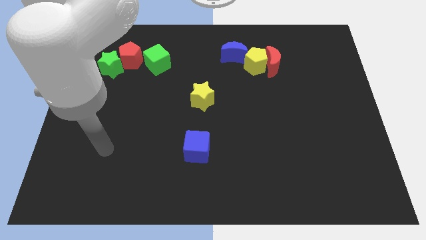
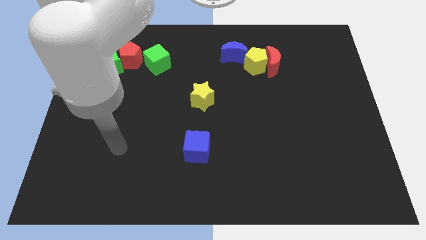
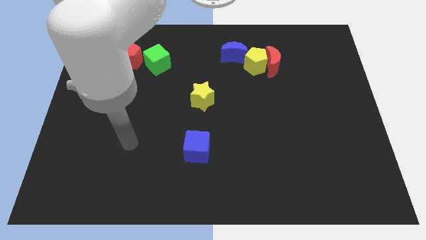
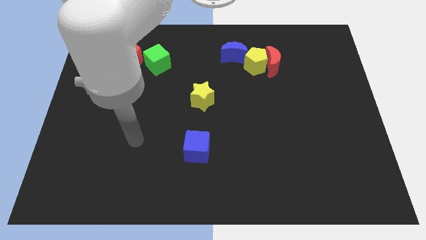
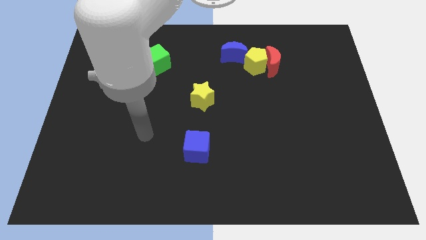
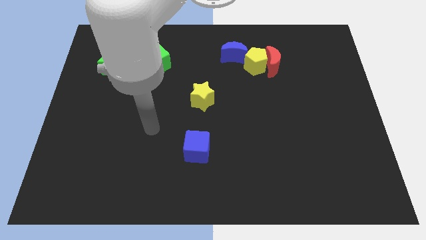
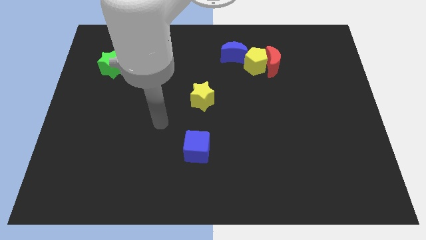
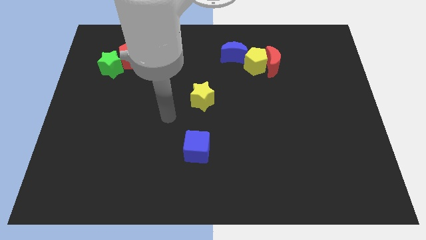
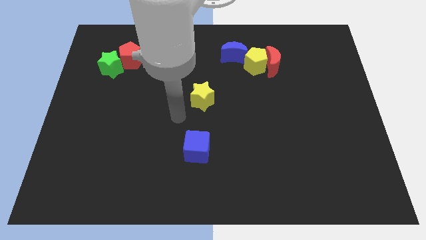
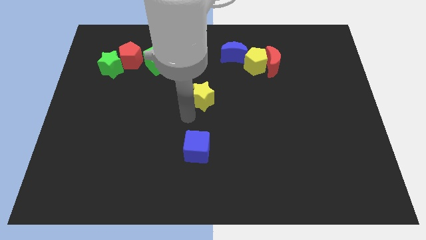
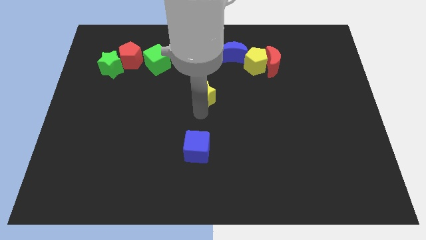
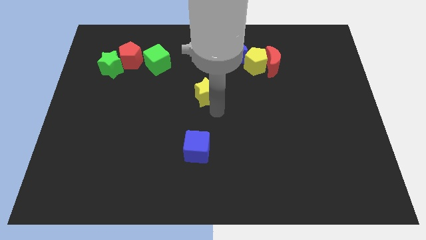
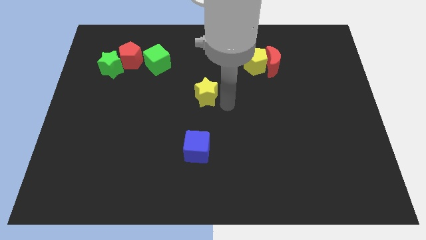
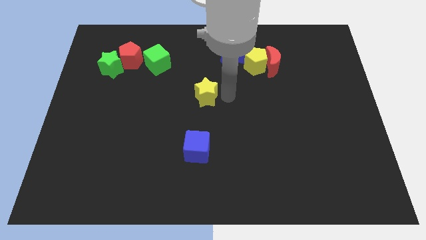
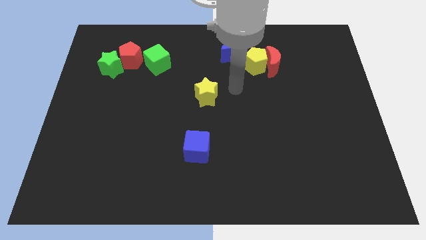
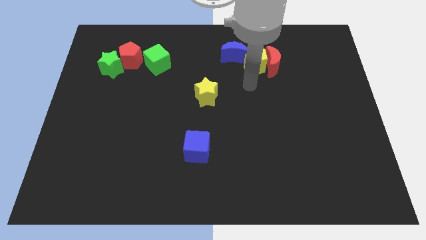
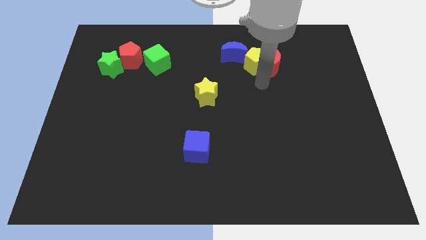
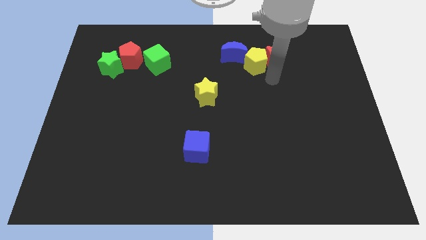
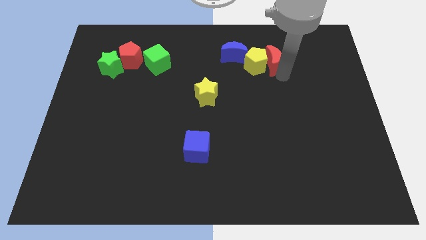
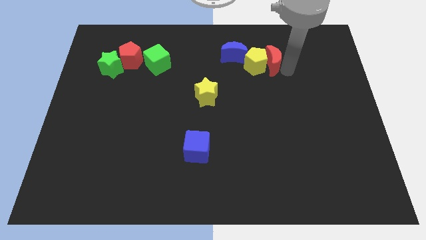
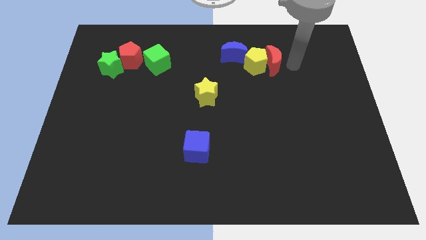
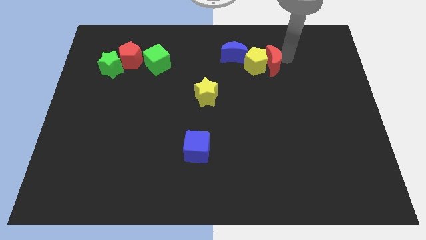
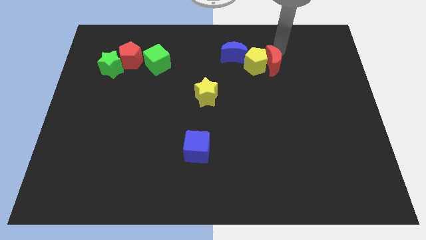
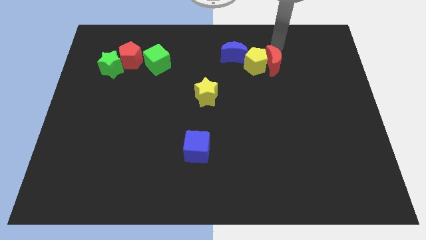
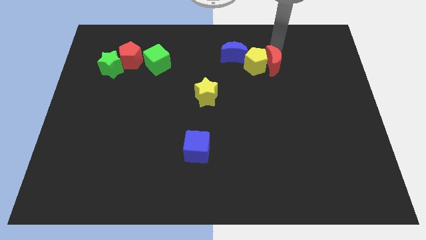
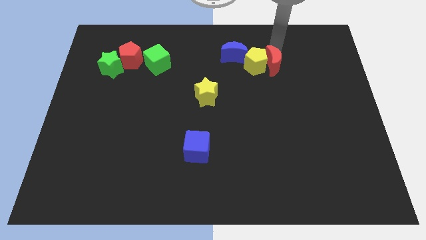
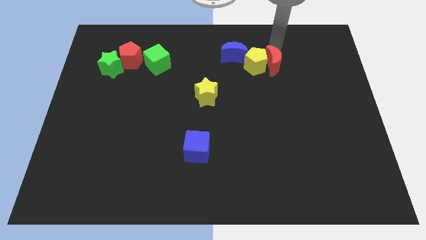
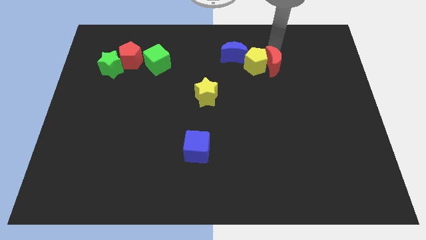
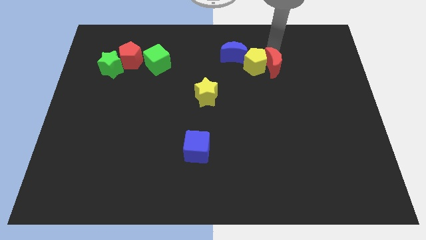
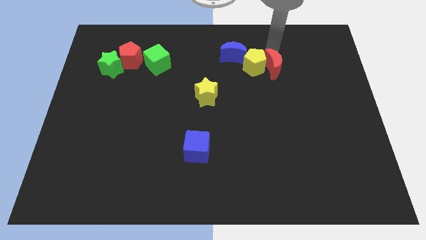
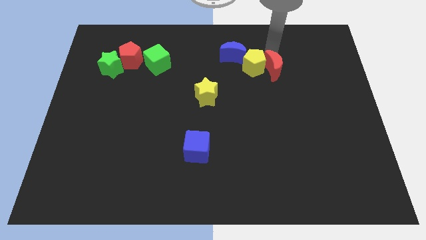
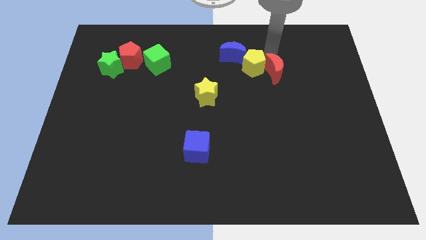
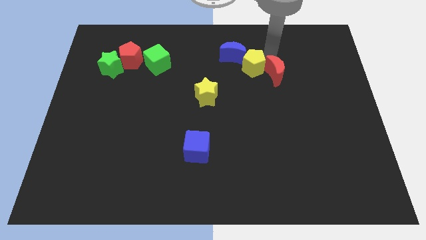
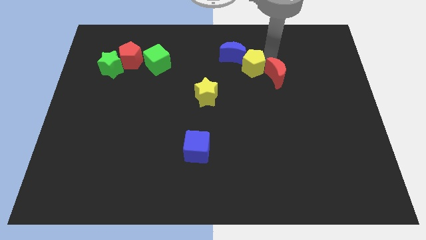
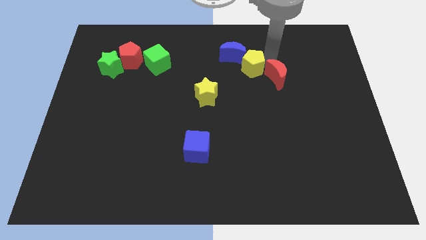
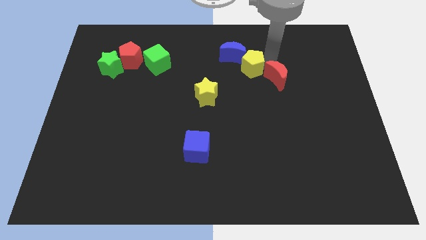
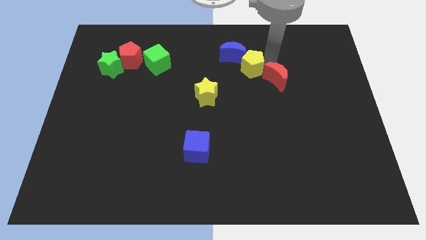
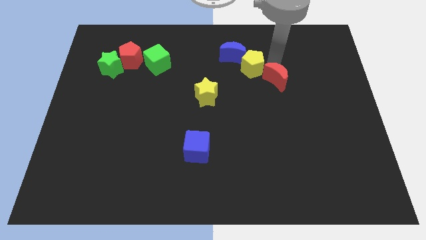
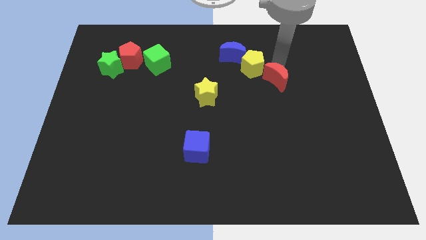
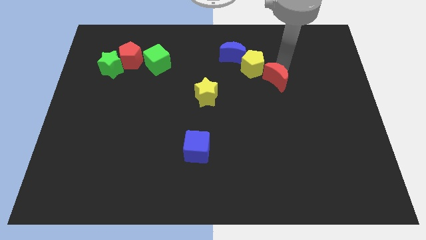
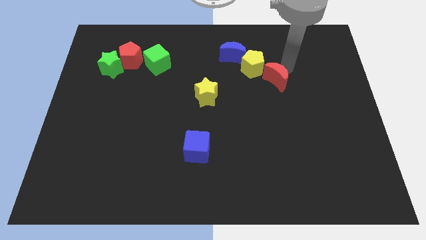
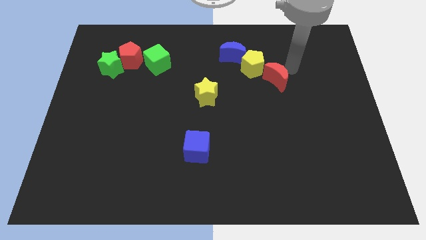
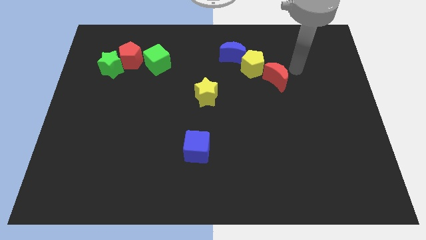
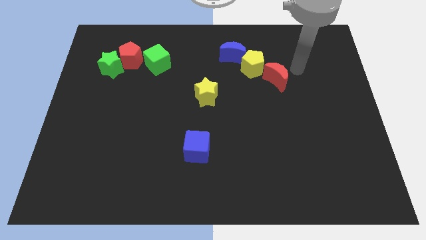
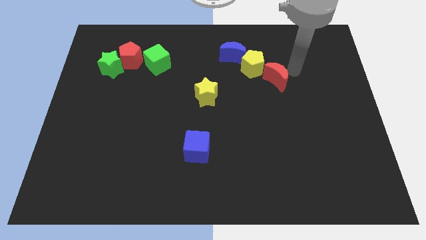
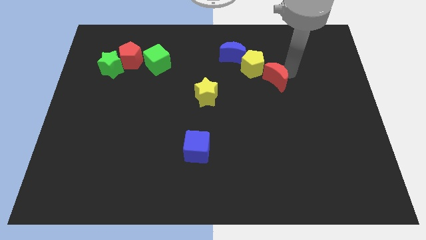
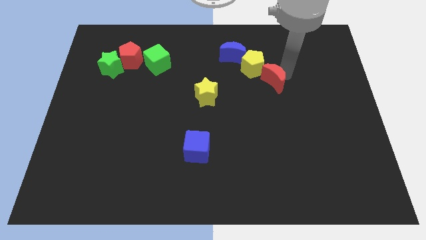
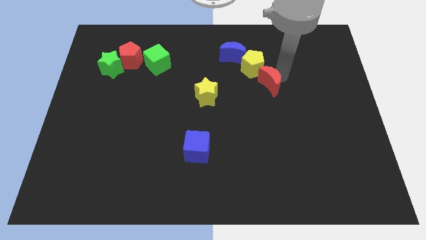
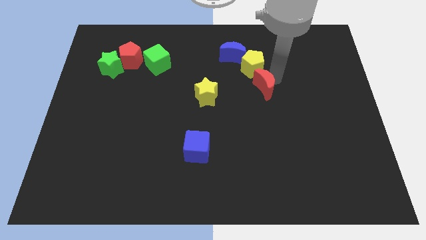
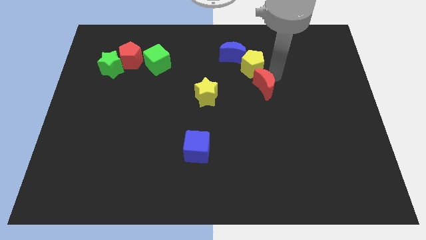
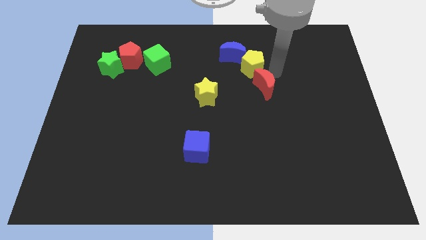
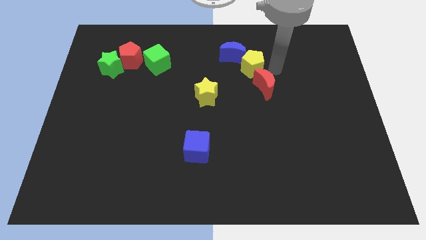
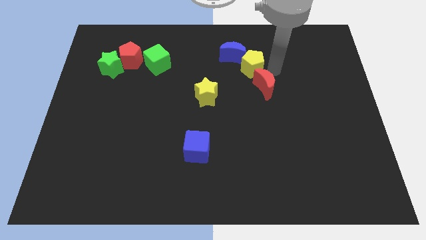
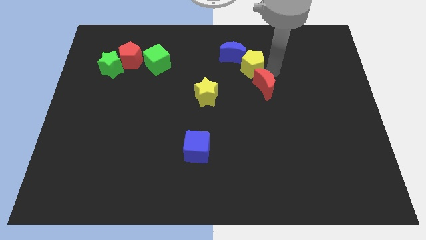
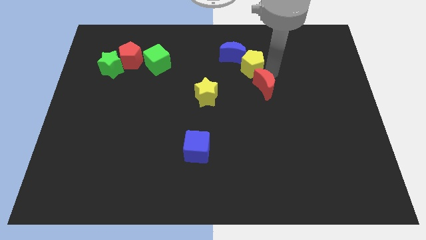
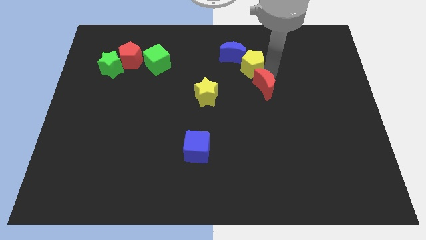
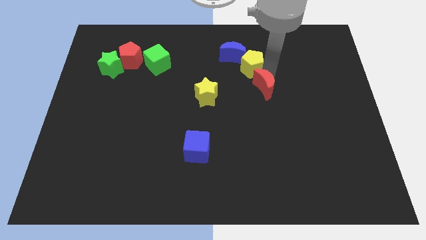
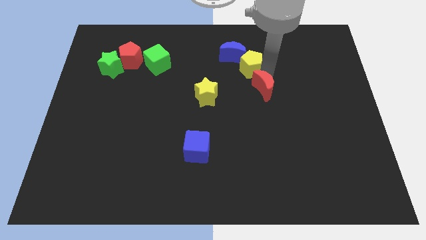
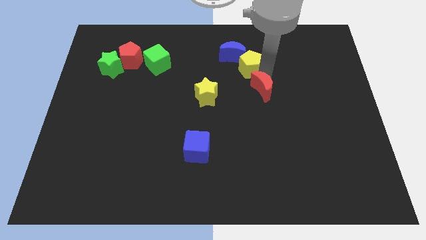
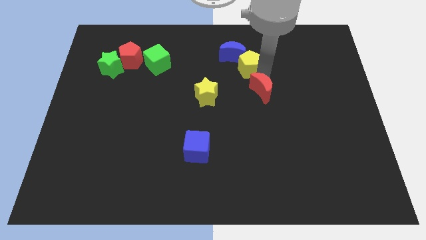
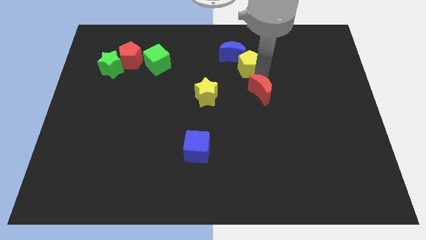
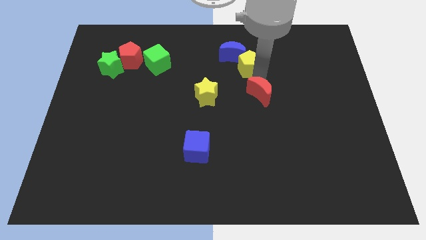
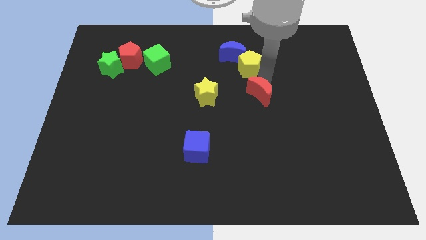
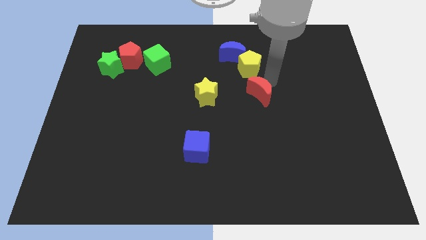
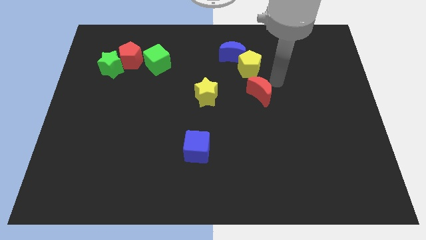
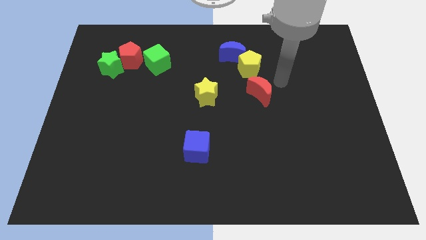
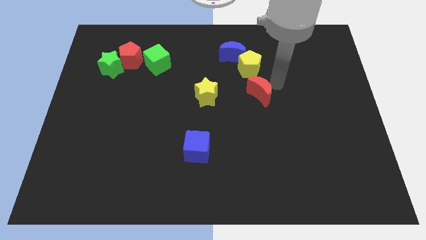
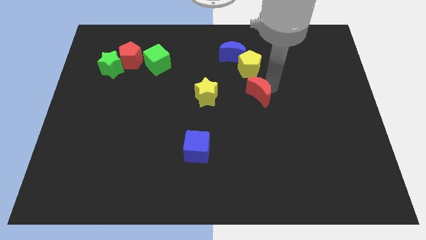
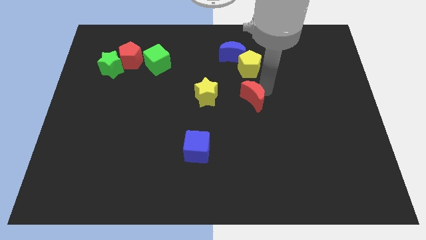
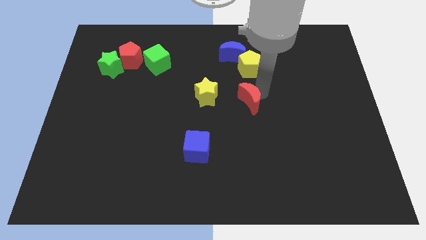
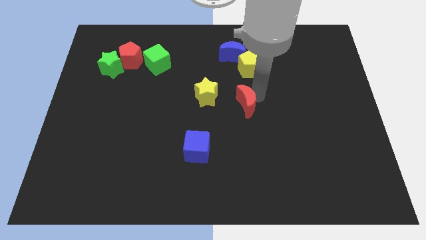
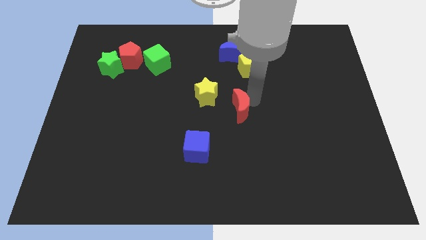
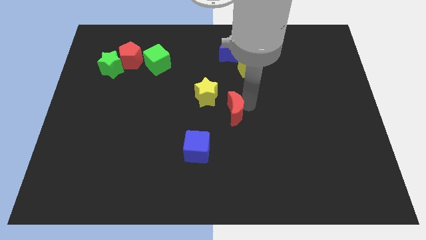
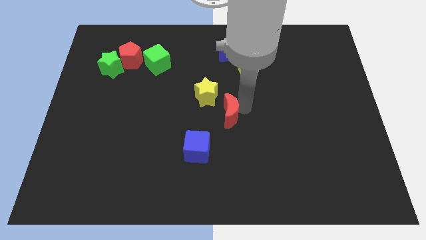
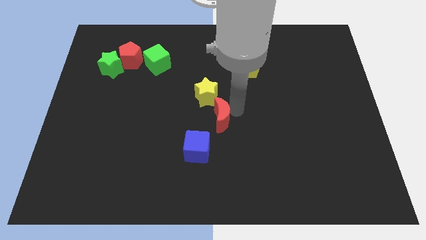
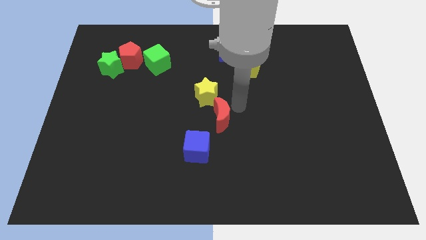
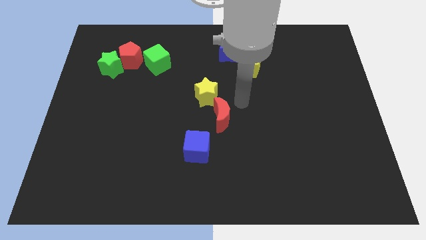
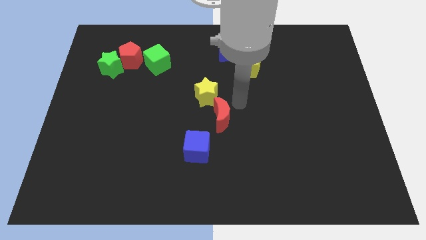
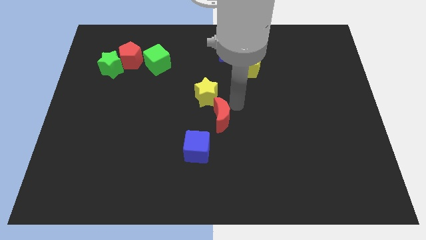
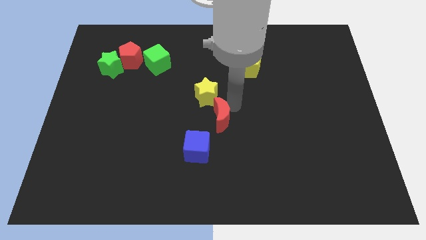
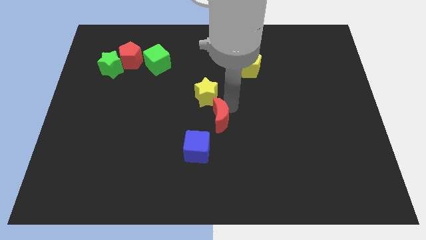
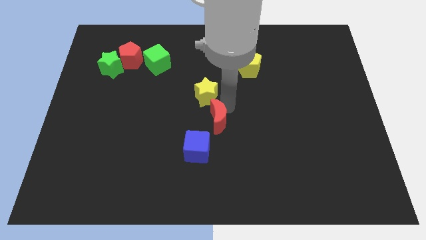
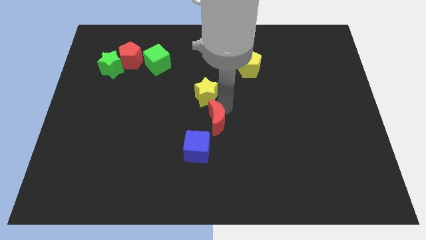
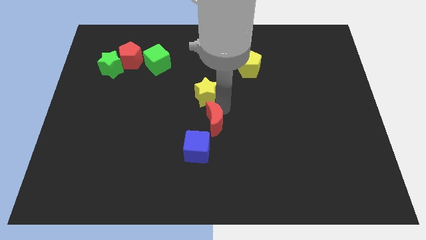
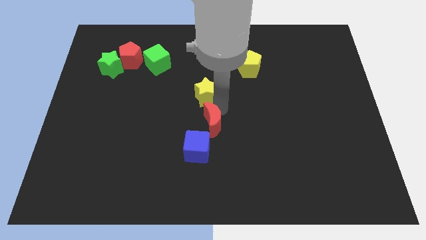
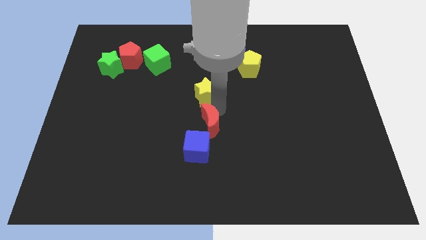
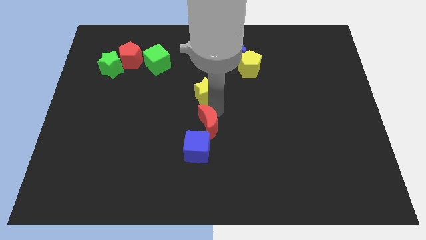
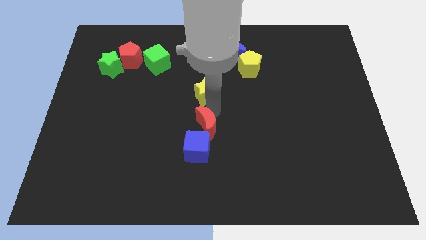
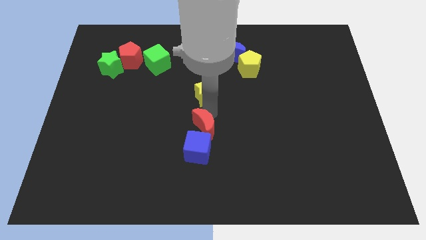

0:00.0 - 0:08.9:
slide the red moon to the blue cube
